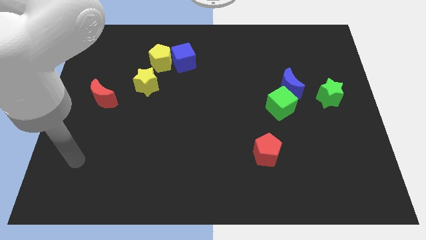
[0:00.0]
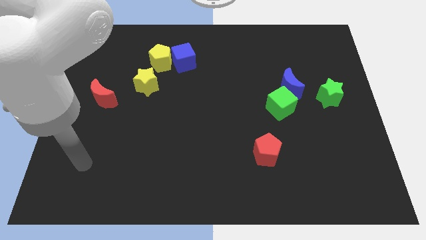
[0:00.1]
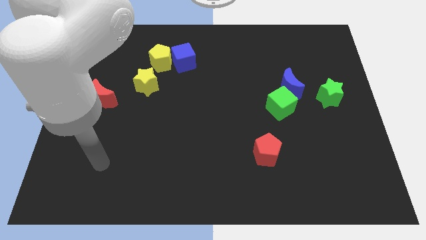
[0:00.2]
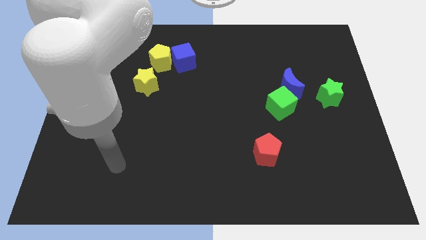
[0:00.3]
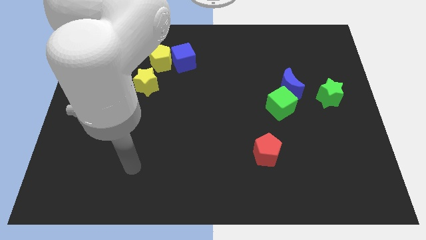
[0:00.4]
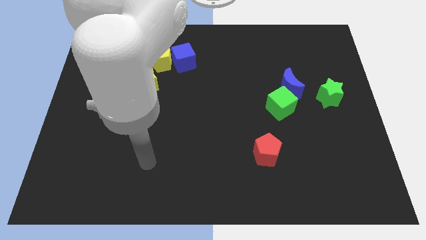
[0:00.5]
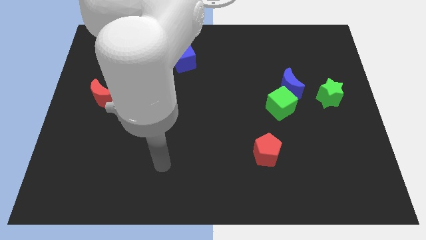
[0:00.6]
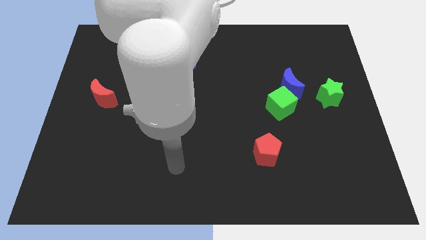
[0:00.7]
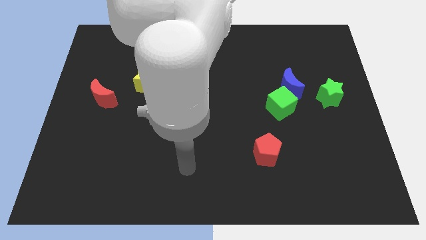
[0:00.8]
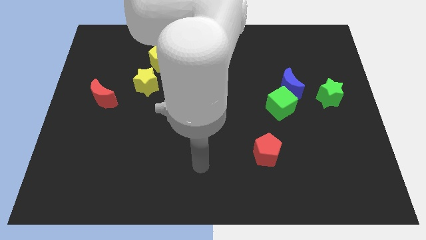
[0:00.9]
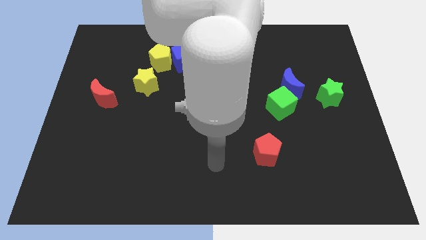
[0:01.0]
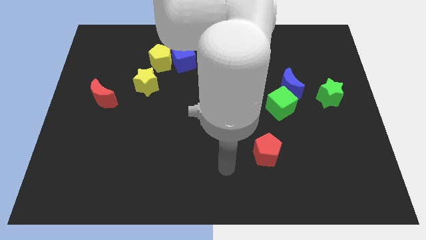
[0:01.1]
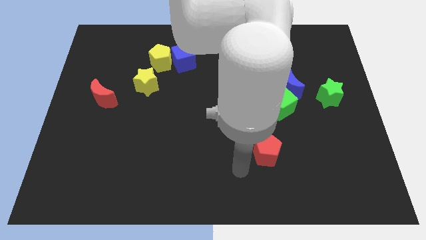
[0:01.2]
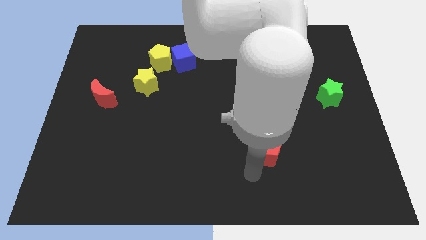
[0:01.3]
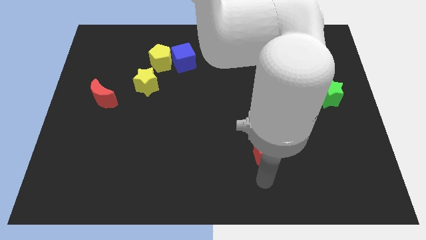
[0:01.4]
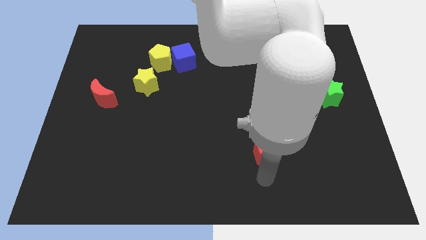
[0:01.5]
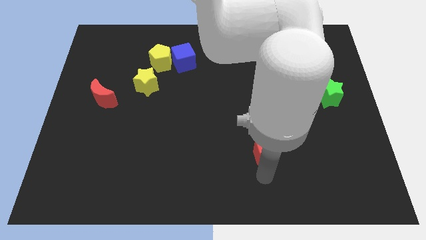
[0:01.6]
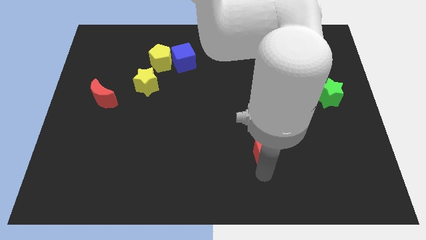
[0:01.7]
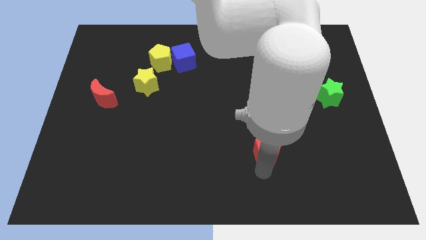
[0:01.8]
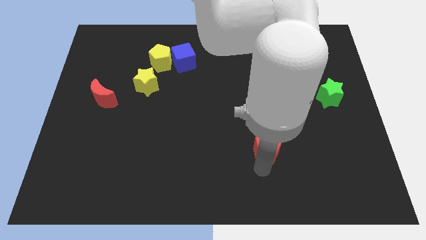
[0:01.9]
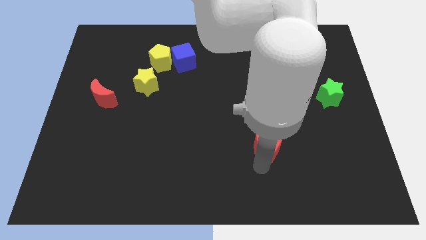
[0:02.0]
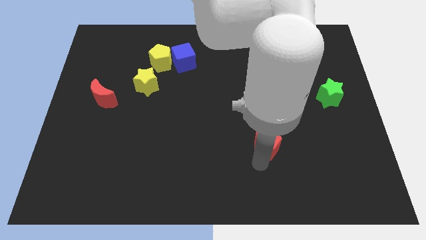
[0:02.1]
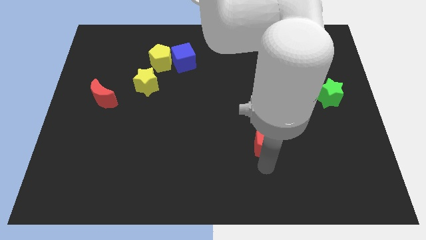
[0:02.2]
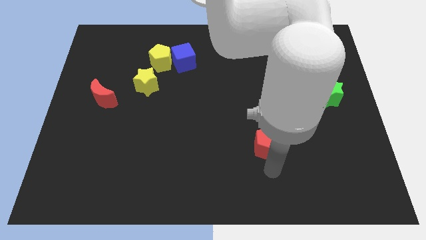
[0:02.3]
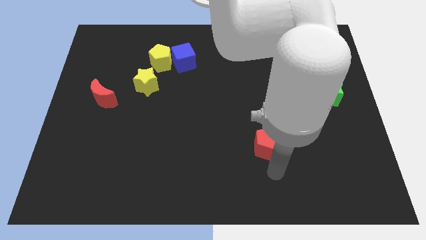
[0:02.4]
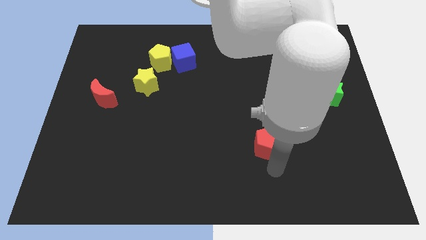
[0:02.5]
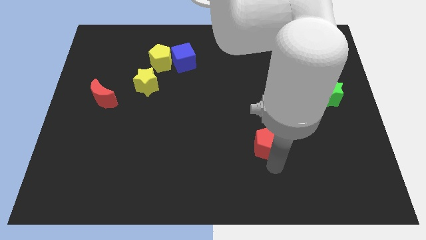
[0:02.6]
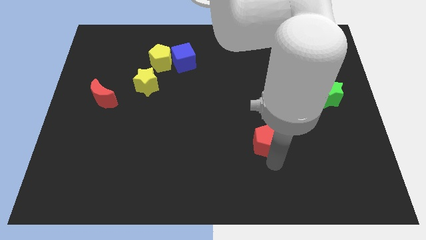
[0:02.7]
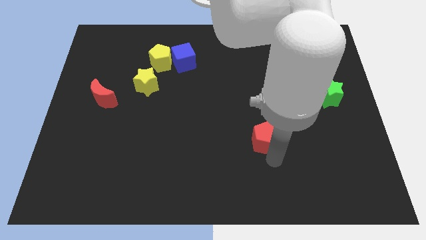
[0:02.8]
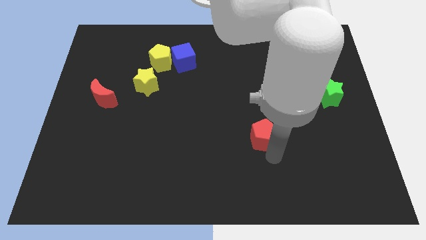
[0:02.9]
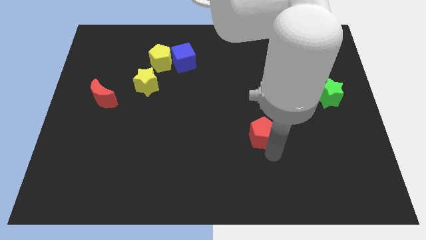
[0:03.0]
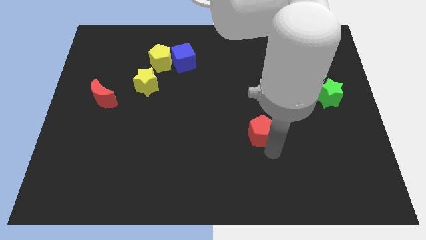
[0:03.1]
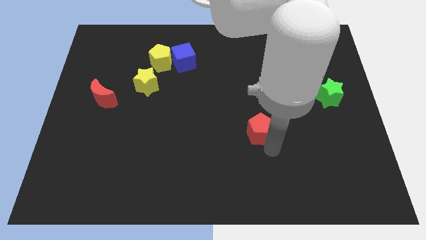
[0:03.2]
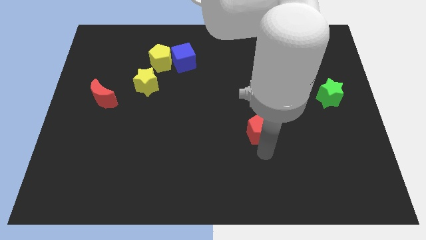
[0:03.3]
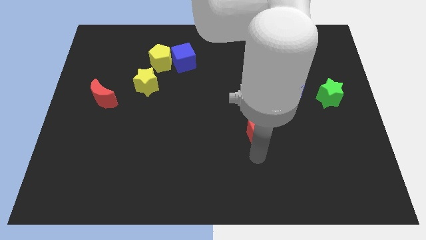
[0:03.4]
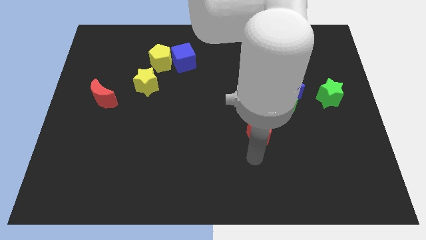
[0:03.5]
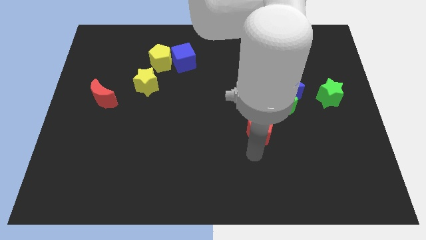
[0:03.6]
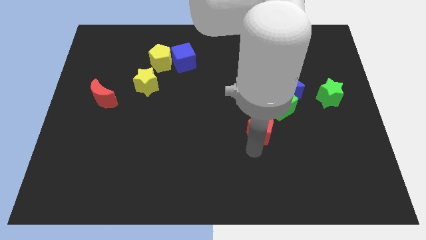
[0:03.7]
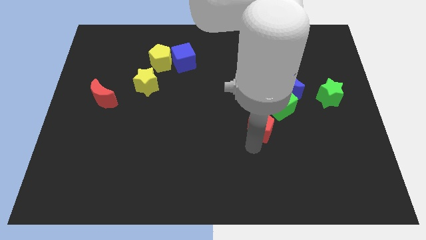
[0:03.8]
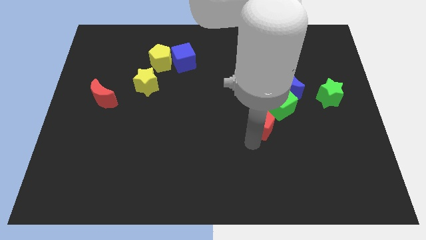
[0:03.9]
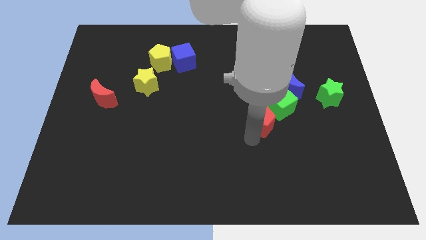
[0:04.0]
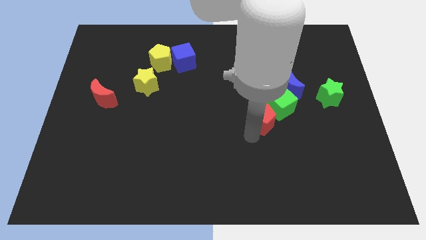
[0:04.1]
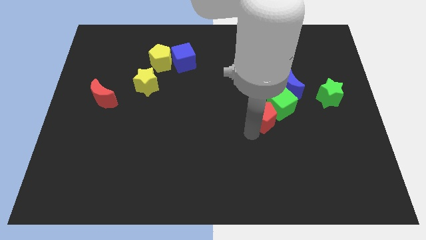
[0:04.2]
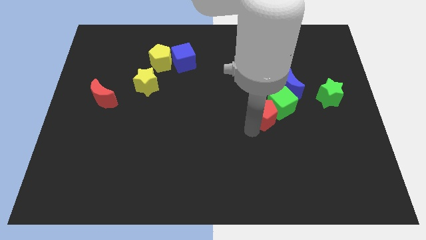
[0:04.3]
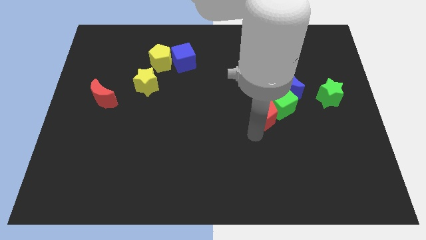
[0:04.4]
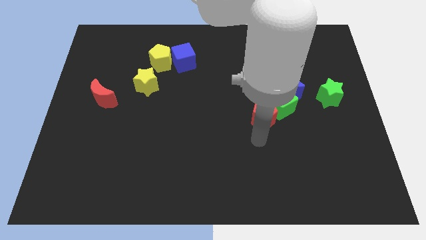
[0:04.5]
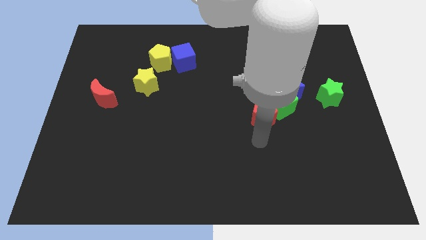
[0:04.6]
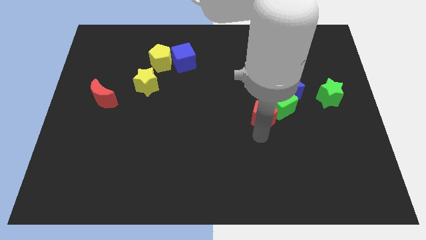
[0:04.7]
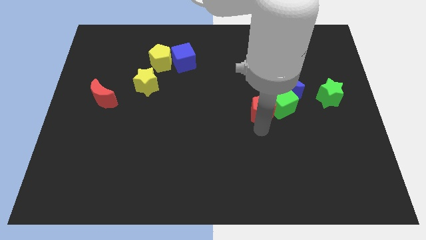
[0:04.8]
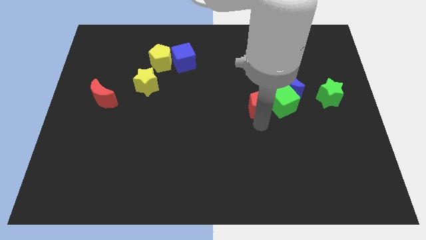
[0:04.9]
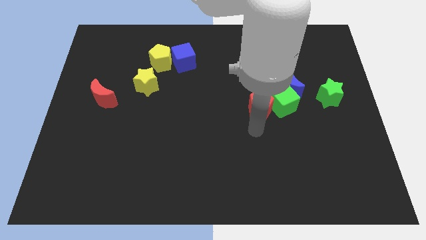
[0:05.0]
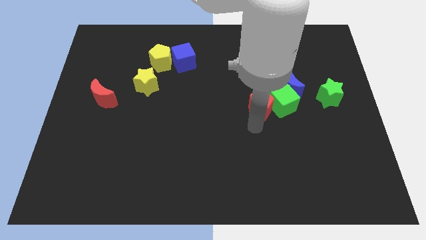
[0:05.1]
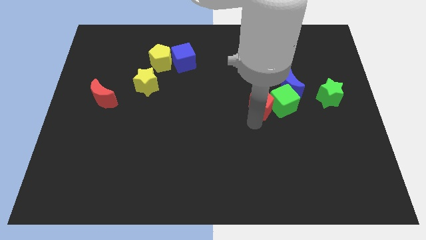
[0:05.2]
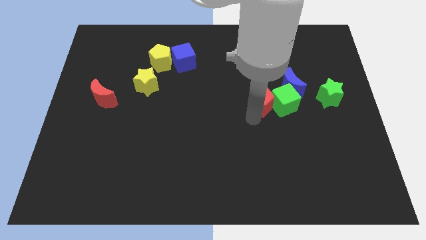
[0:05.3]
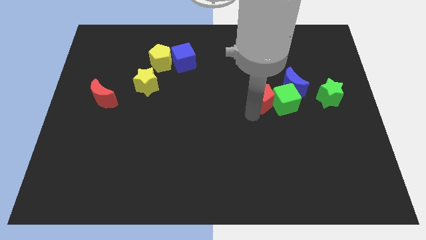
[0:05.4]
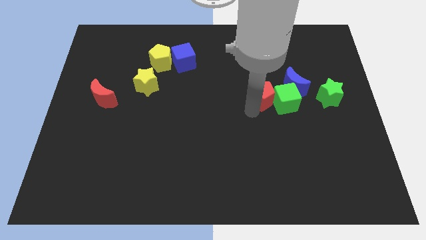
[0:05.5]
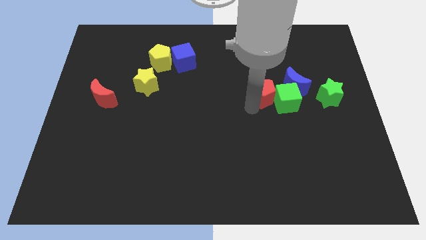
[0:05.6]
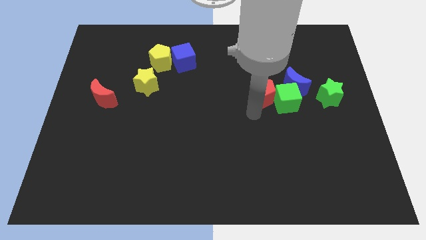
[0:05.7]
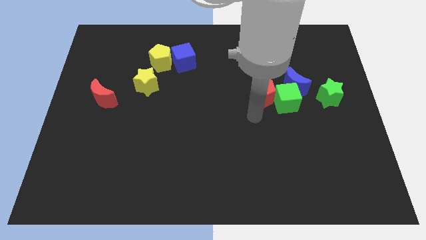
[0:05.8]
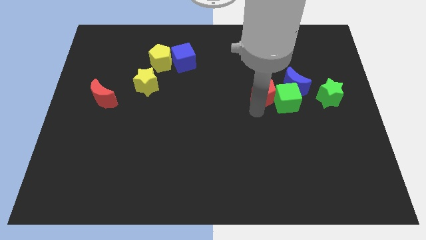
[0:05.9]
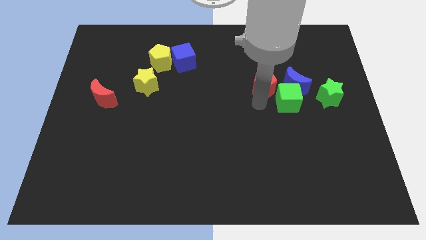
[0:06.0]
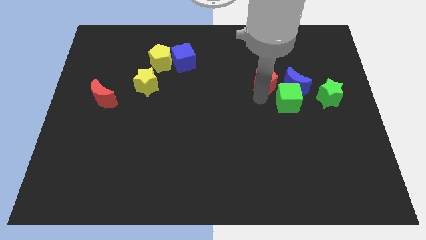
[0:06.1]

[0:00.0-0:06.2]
slide the red pentagon to the top left of the blue moon
